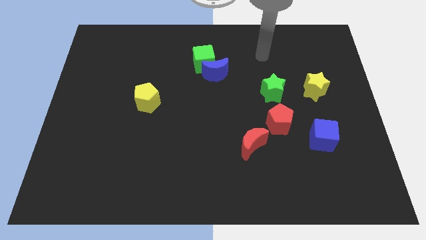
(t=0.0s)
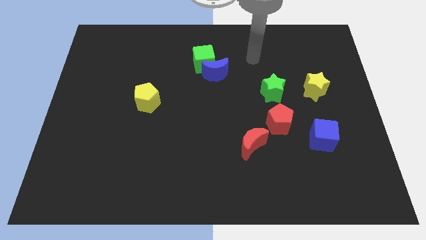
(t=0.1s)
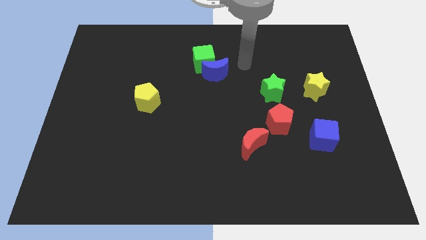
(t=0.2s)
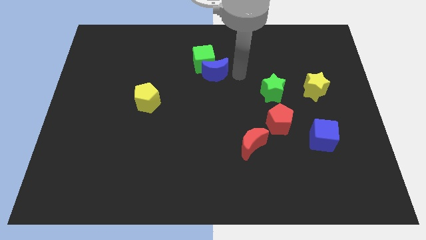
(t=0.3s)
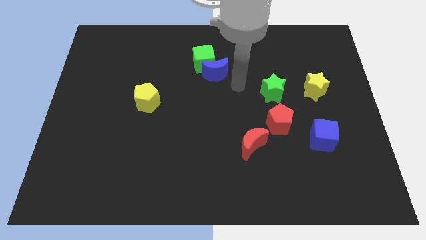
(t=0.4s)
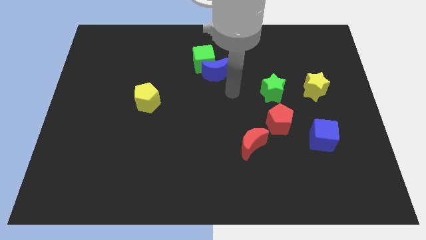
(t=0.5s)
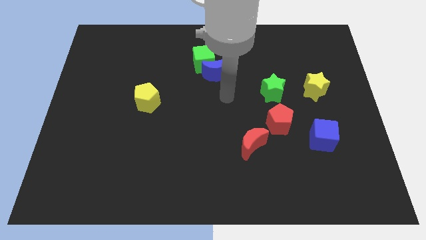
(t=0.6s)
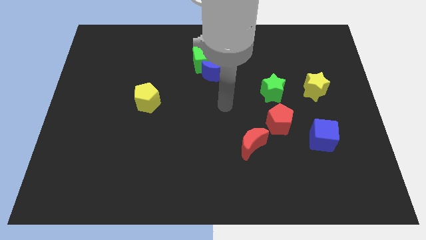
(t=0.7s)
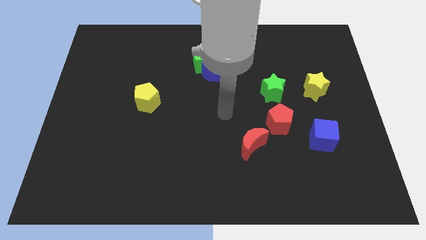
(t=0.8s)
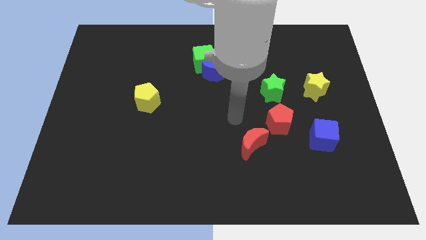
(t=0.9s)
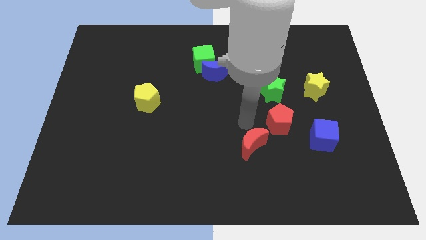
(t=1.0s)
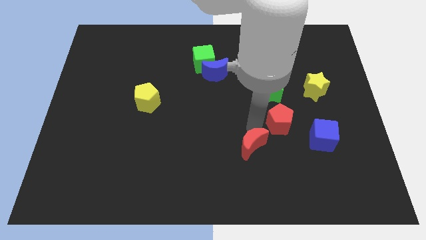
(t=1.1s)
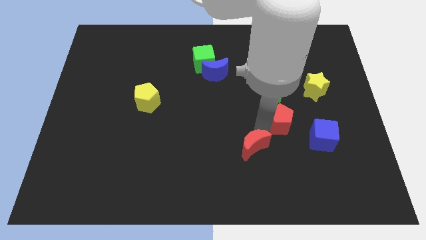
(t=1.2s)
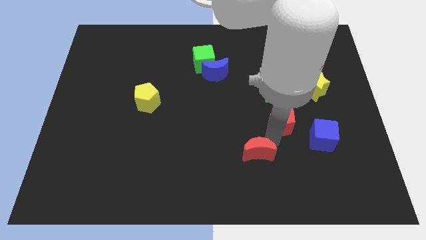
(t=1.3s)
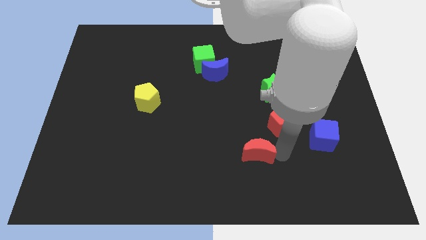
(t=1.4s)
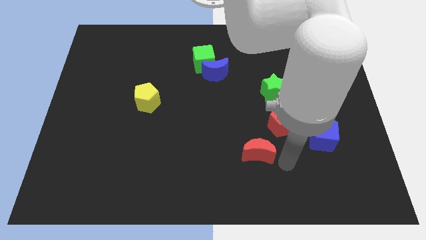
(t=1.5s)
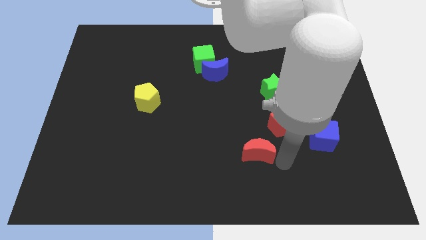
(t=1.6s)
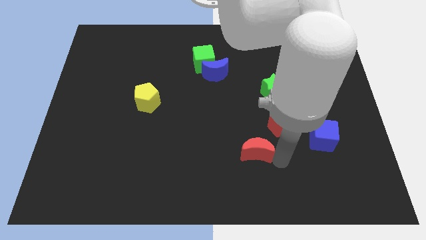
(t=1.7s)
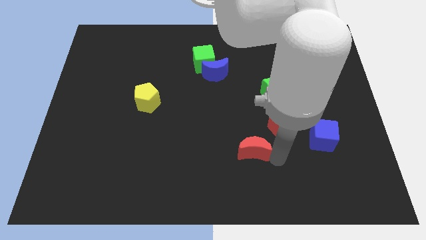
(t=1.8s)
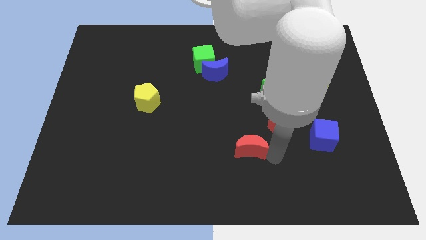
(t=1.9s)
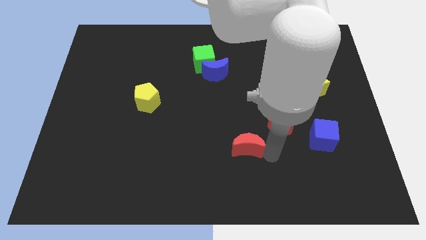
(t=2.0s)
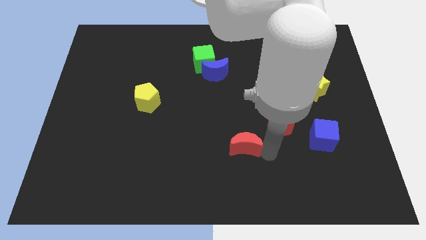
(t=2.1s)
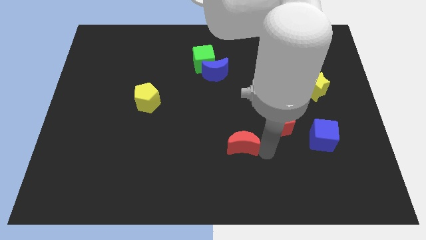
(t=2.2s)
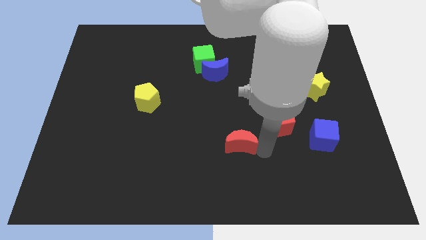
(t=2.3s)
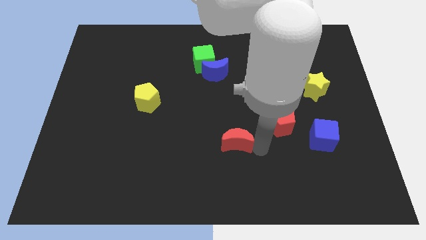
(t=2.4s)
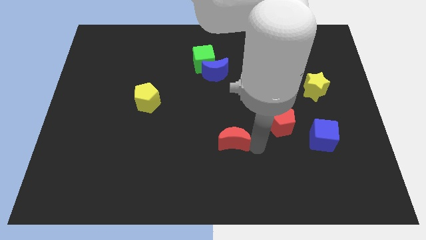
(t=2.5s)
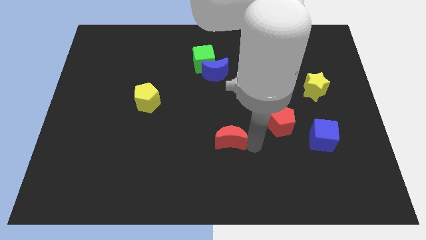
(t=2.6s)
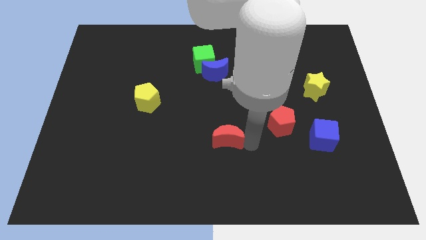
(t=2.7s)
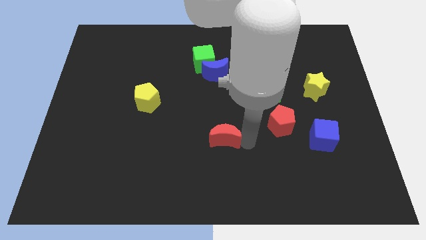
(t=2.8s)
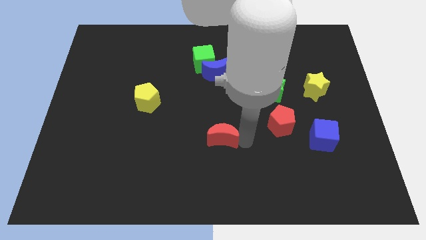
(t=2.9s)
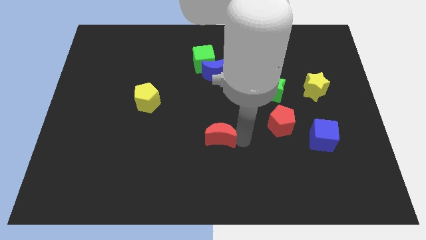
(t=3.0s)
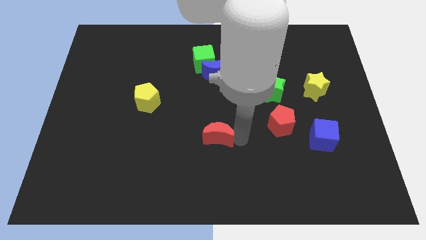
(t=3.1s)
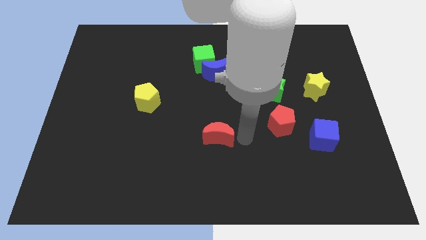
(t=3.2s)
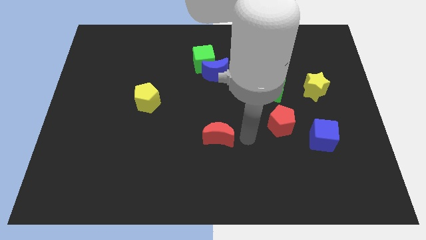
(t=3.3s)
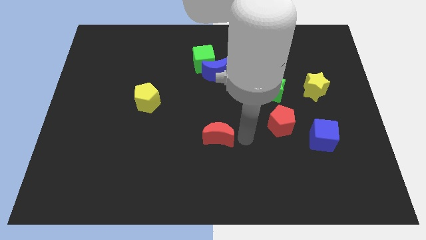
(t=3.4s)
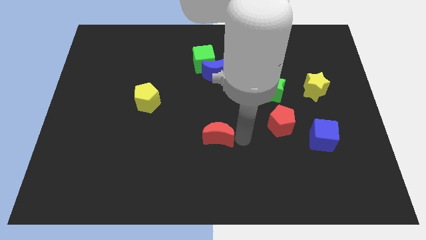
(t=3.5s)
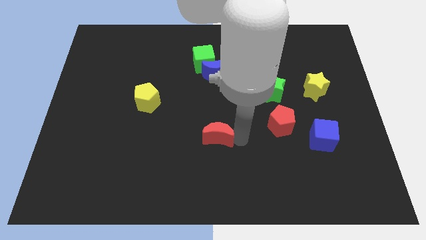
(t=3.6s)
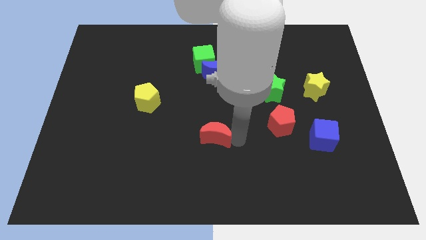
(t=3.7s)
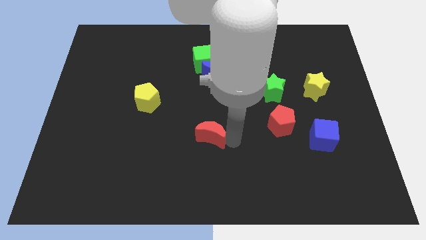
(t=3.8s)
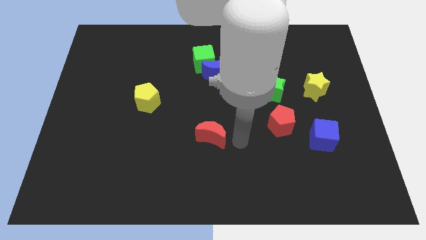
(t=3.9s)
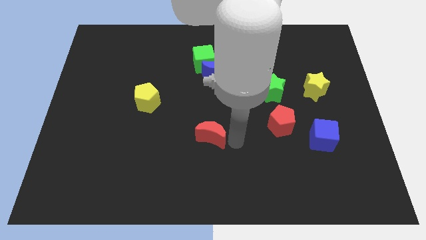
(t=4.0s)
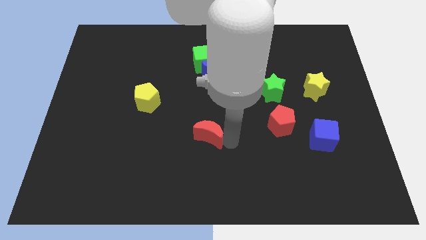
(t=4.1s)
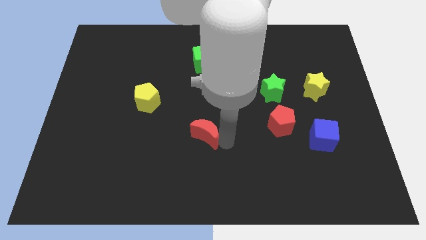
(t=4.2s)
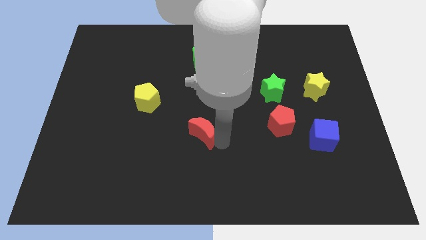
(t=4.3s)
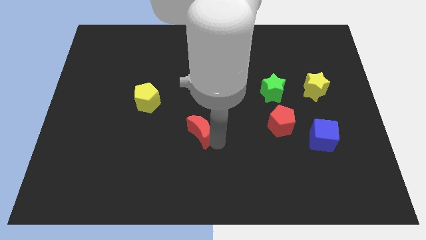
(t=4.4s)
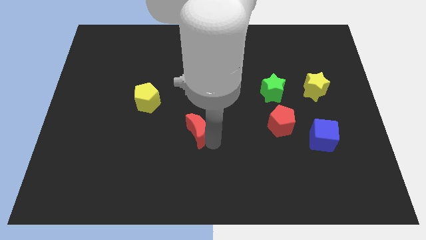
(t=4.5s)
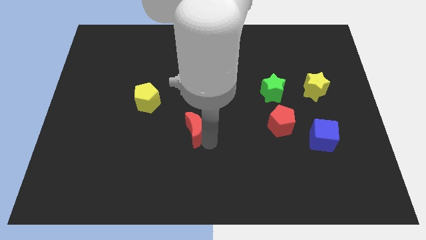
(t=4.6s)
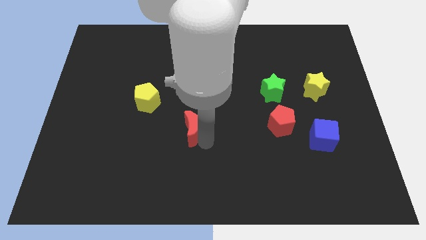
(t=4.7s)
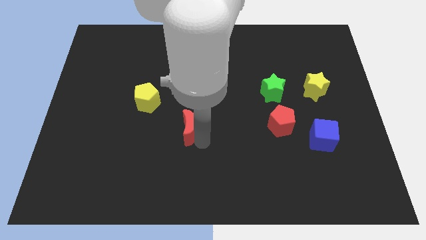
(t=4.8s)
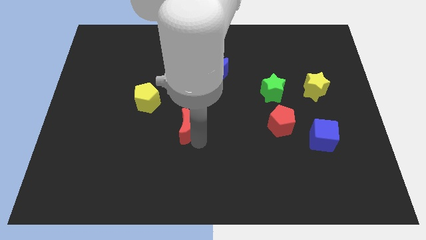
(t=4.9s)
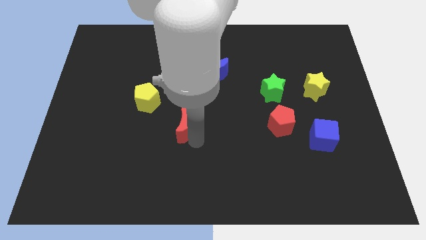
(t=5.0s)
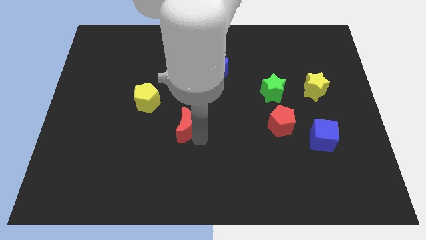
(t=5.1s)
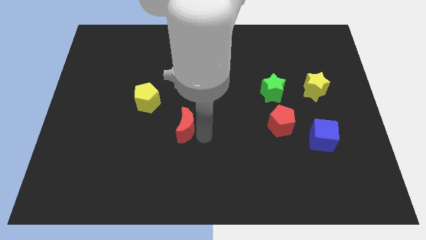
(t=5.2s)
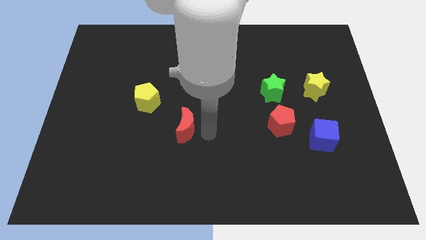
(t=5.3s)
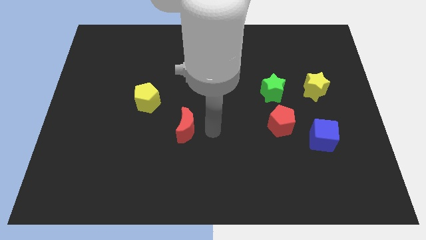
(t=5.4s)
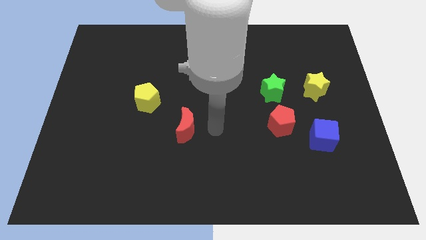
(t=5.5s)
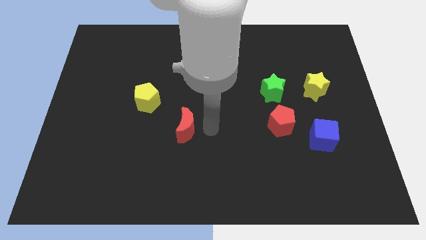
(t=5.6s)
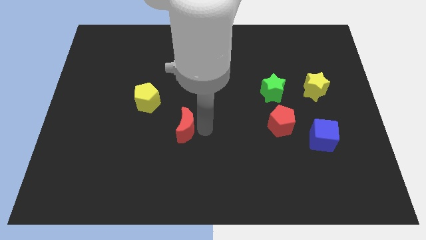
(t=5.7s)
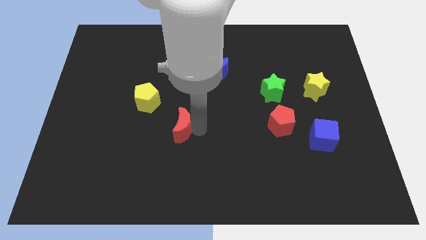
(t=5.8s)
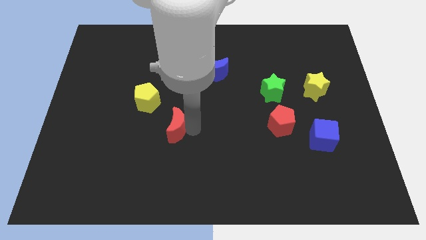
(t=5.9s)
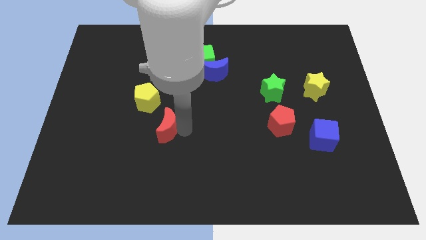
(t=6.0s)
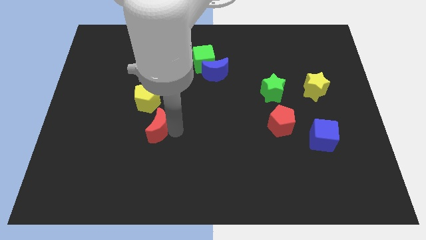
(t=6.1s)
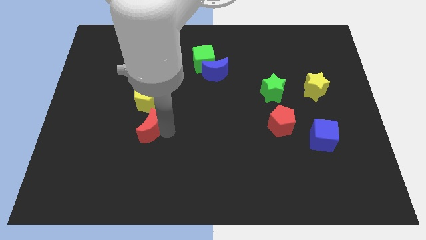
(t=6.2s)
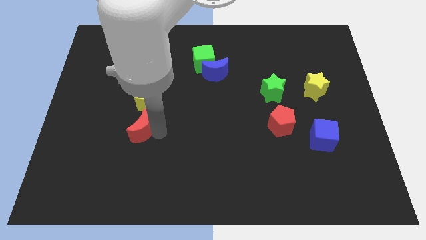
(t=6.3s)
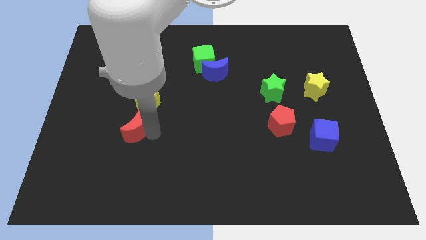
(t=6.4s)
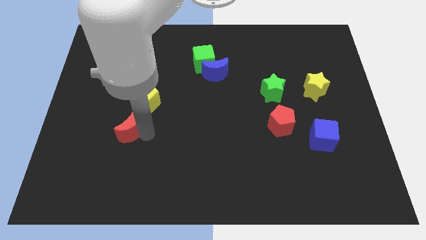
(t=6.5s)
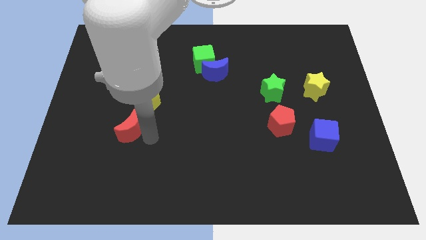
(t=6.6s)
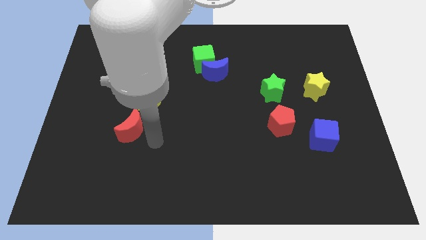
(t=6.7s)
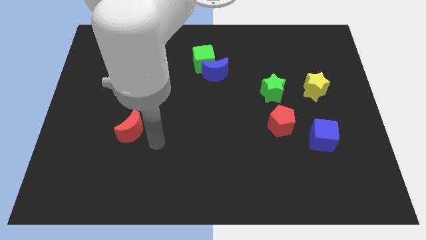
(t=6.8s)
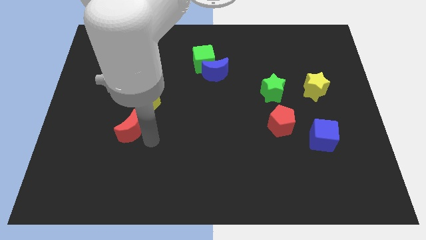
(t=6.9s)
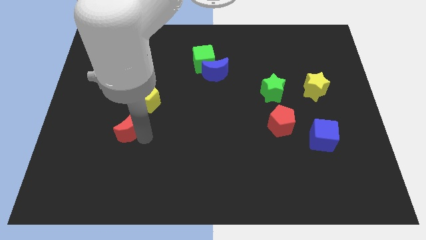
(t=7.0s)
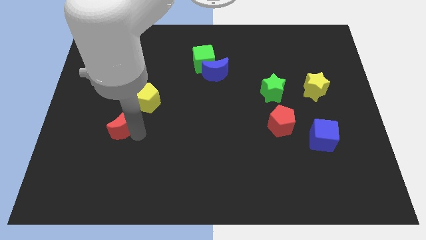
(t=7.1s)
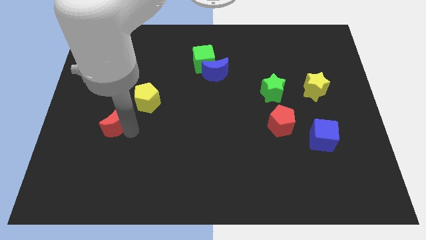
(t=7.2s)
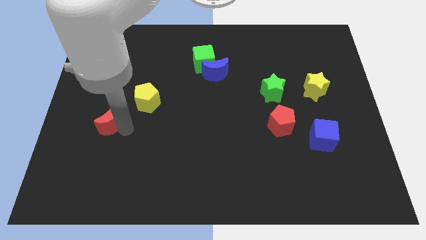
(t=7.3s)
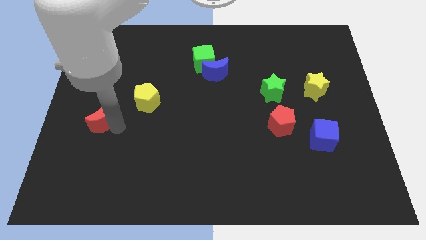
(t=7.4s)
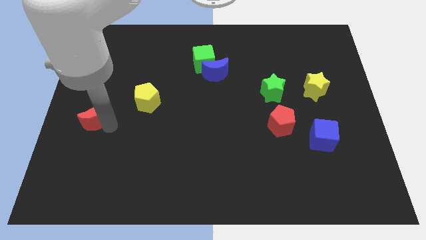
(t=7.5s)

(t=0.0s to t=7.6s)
push the red moon to the left side of the board
